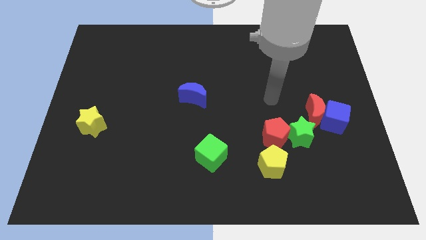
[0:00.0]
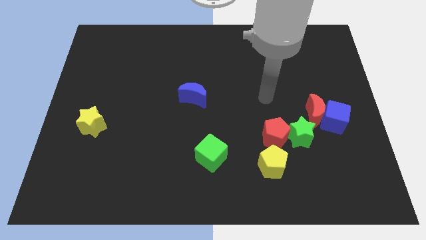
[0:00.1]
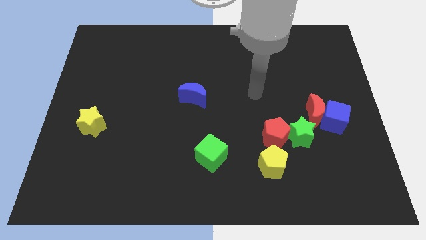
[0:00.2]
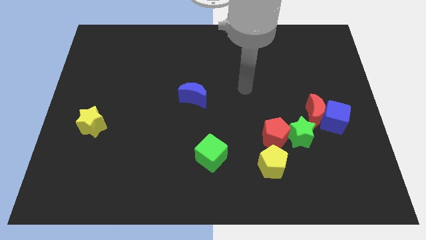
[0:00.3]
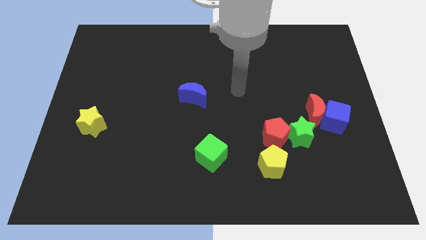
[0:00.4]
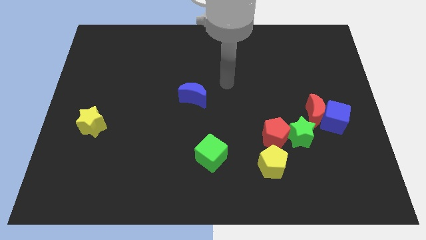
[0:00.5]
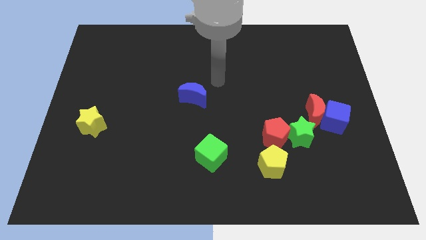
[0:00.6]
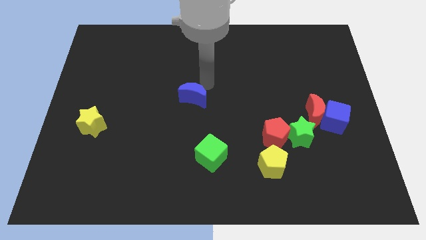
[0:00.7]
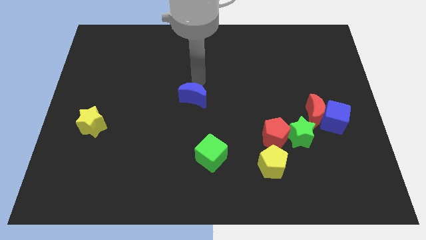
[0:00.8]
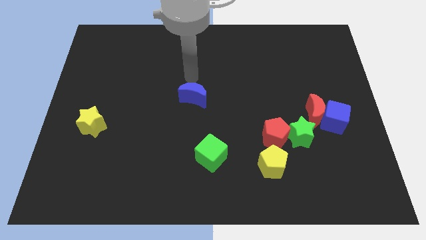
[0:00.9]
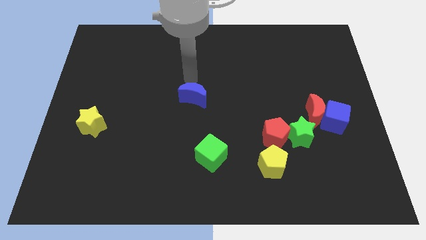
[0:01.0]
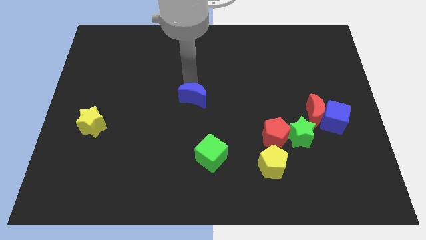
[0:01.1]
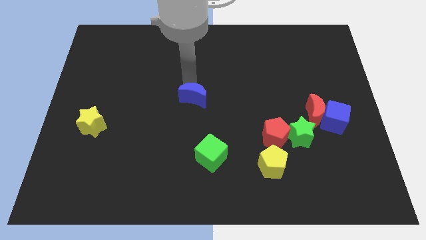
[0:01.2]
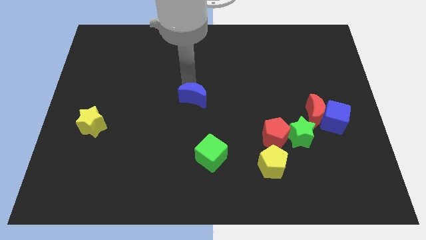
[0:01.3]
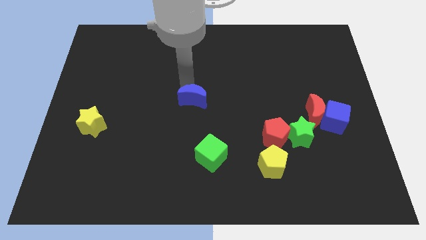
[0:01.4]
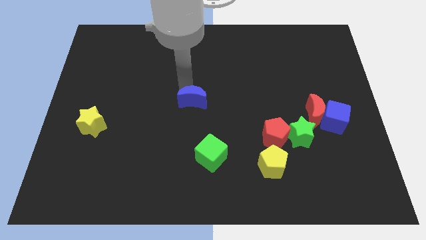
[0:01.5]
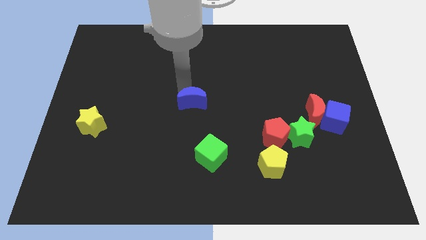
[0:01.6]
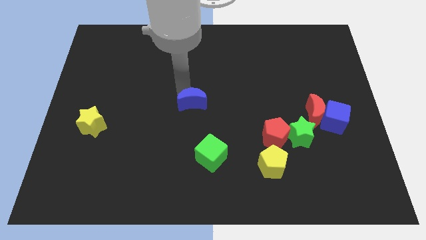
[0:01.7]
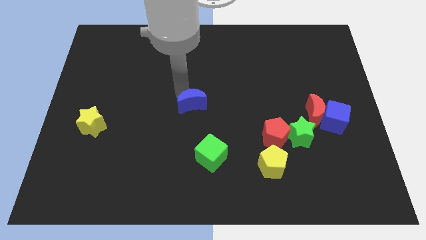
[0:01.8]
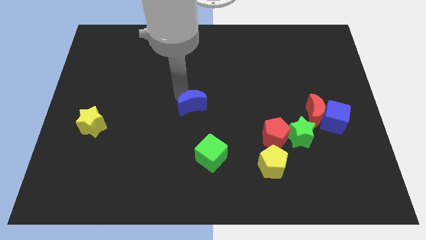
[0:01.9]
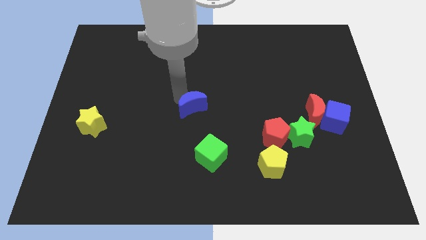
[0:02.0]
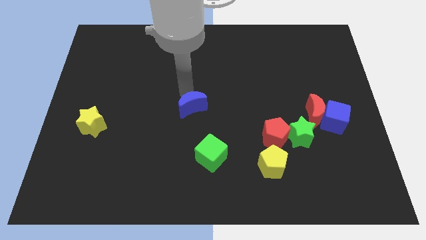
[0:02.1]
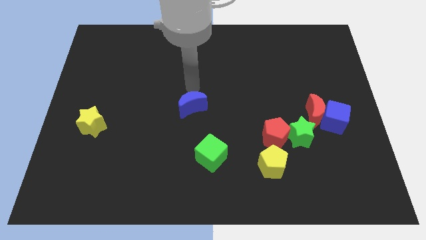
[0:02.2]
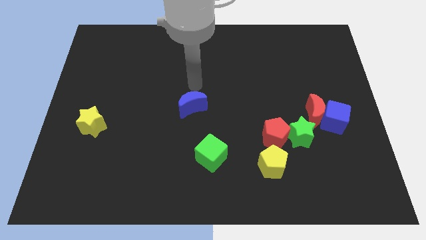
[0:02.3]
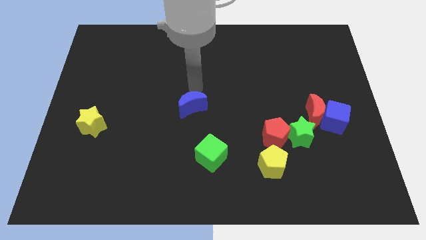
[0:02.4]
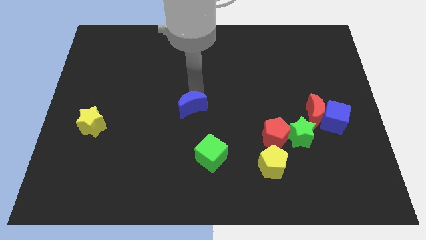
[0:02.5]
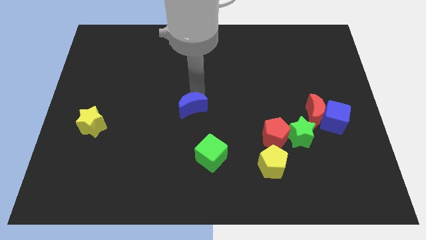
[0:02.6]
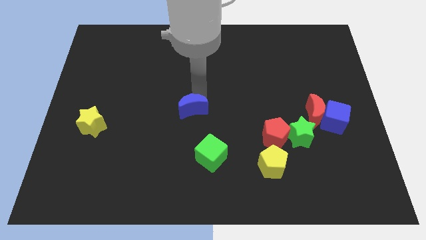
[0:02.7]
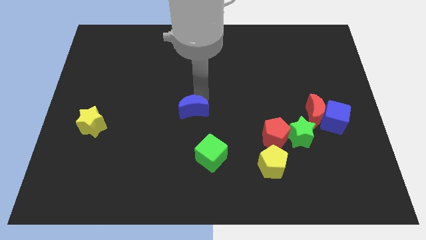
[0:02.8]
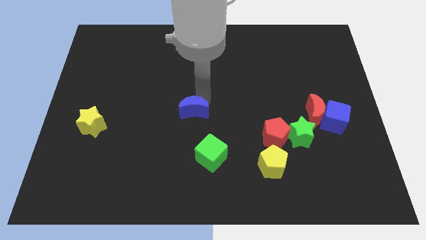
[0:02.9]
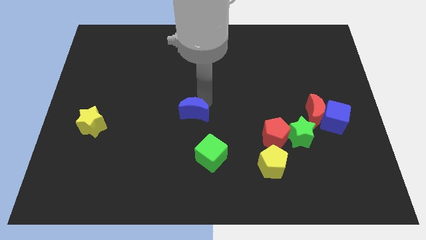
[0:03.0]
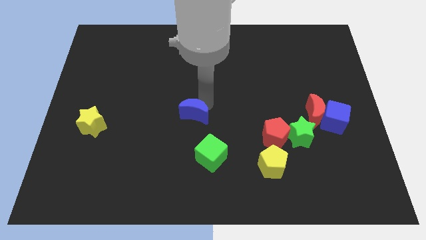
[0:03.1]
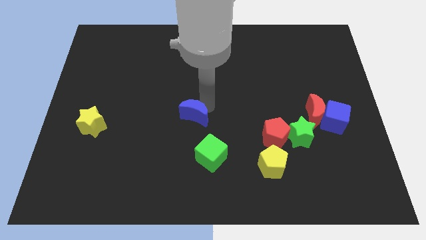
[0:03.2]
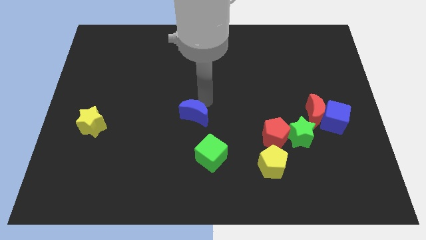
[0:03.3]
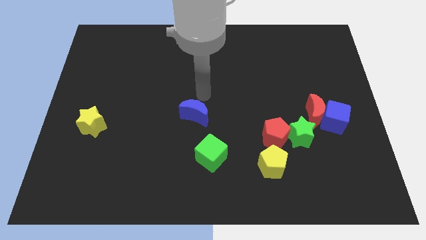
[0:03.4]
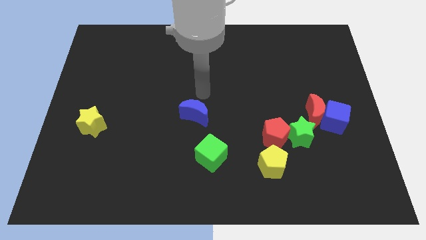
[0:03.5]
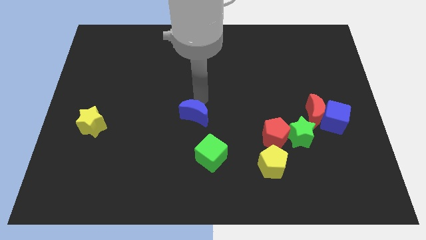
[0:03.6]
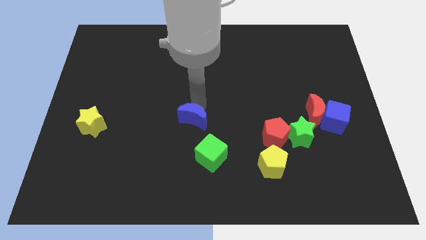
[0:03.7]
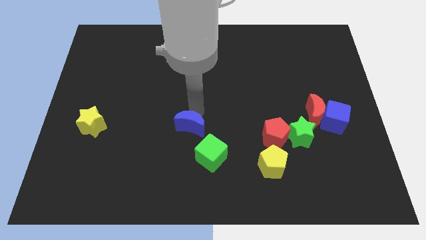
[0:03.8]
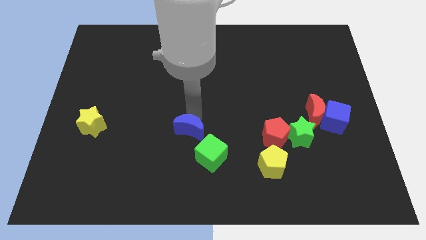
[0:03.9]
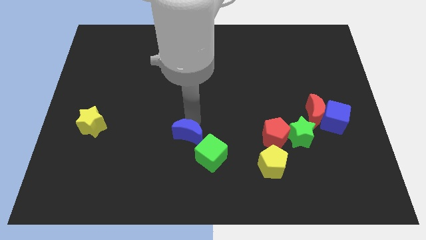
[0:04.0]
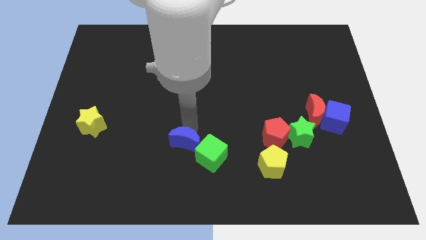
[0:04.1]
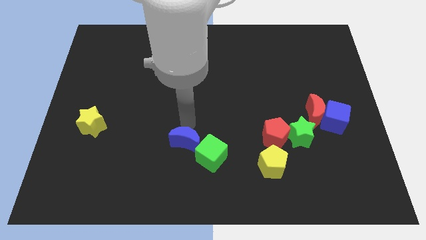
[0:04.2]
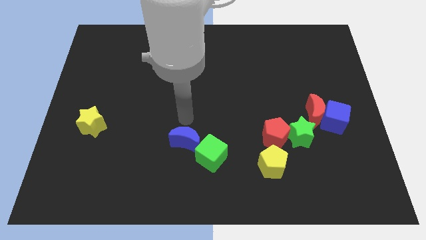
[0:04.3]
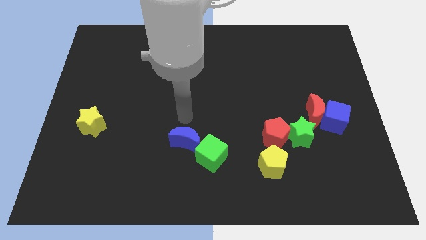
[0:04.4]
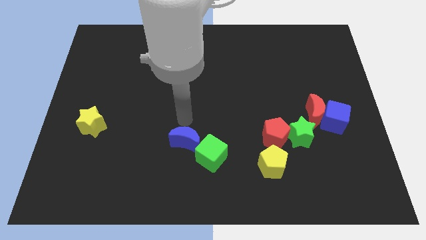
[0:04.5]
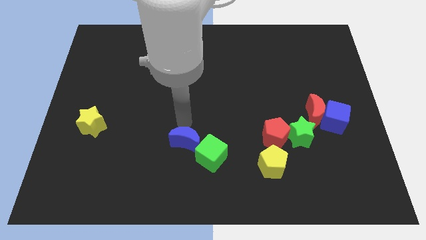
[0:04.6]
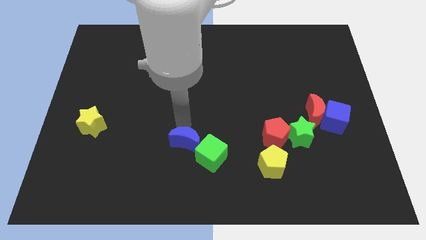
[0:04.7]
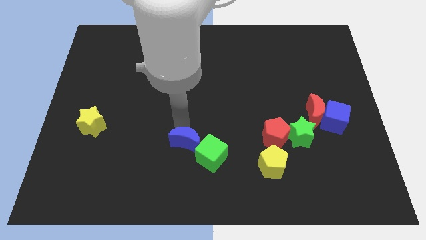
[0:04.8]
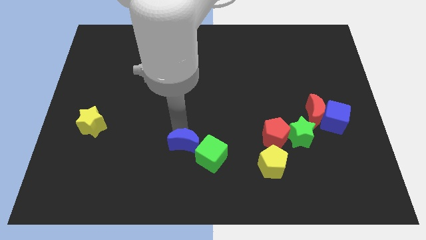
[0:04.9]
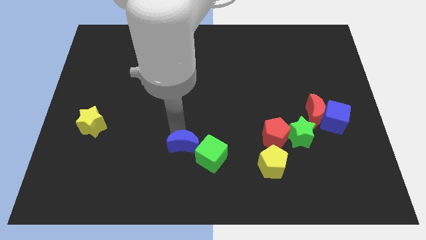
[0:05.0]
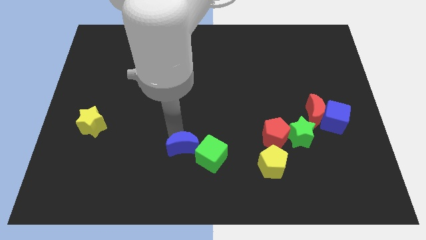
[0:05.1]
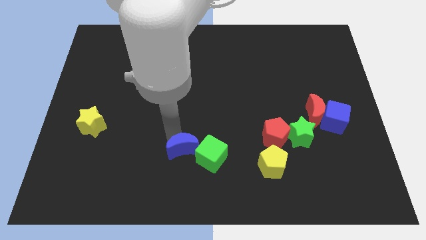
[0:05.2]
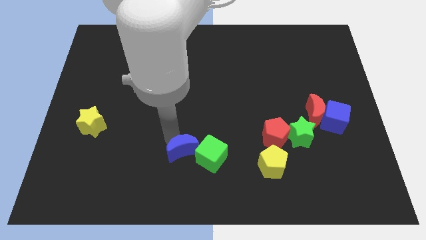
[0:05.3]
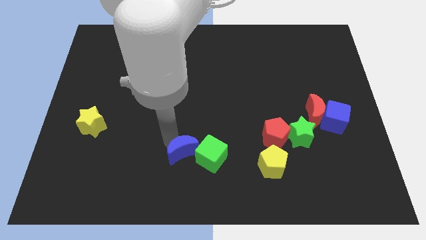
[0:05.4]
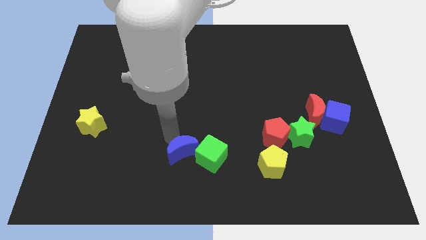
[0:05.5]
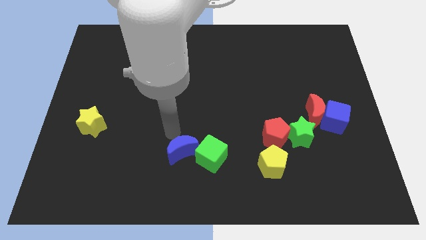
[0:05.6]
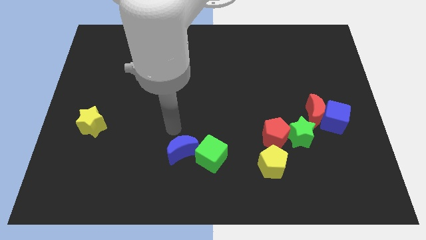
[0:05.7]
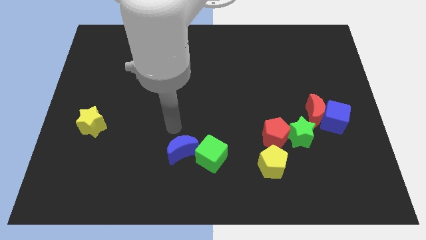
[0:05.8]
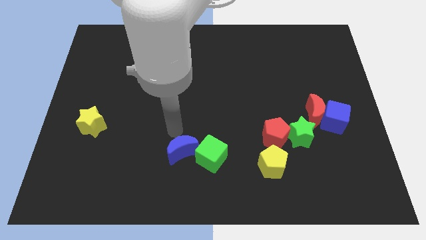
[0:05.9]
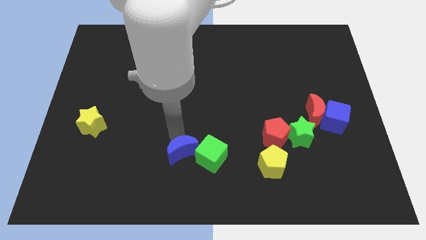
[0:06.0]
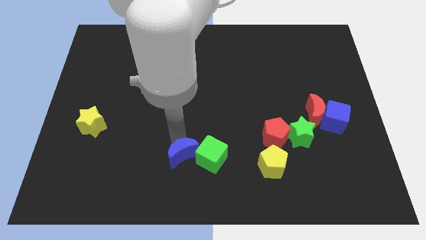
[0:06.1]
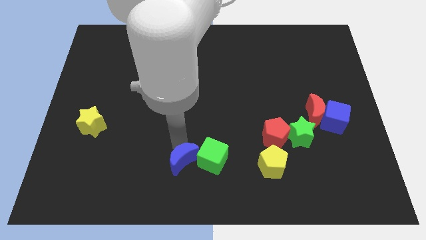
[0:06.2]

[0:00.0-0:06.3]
put the blue moon to the bottom side
